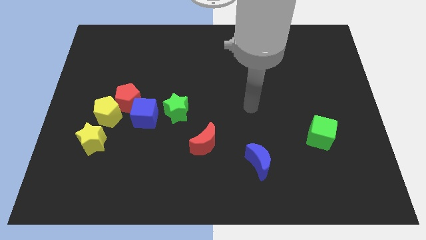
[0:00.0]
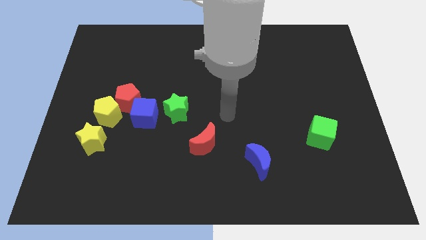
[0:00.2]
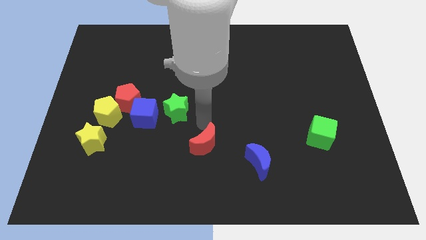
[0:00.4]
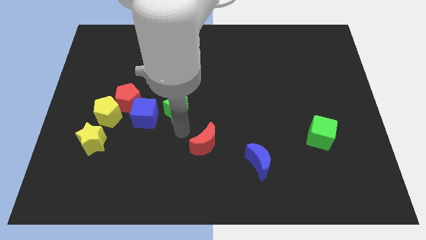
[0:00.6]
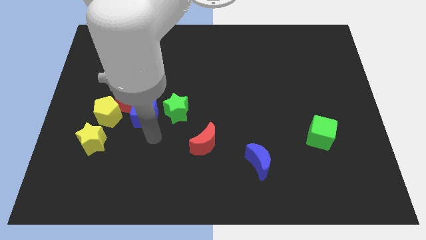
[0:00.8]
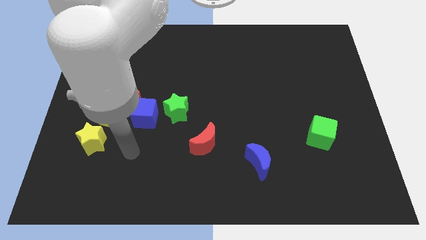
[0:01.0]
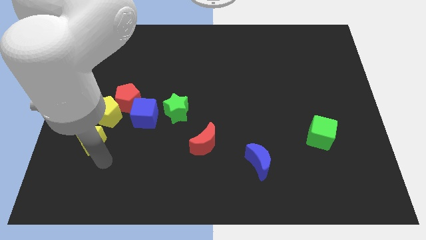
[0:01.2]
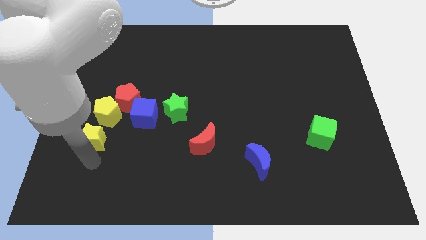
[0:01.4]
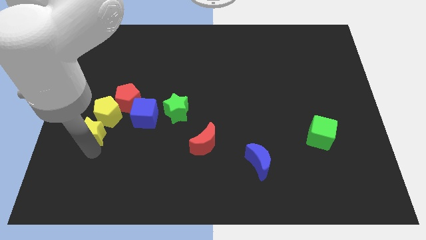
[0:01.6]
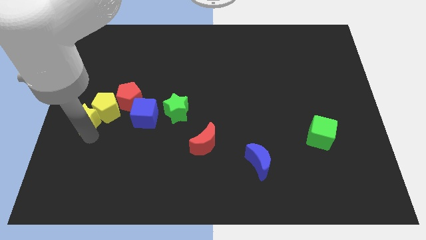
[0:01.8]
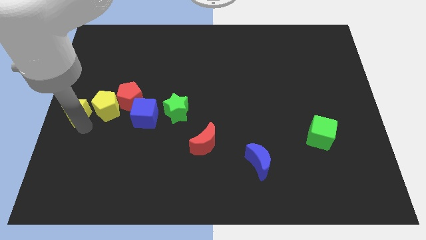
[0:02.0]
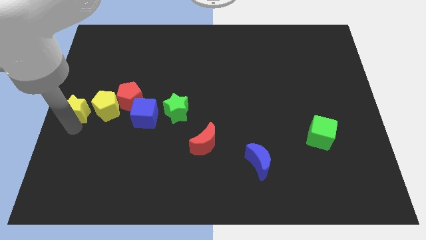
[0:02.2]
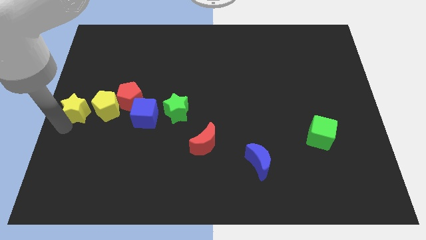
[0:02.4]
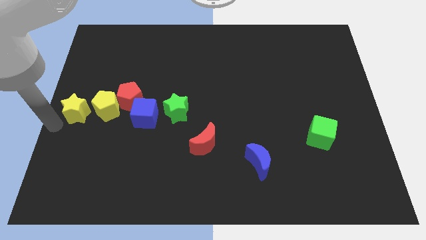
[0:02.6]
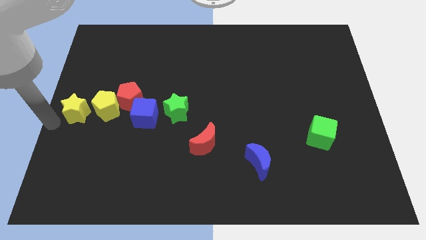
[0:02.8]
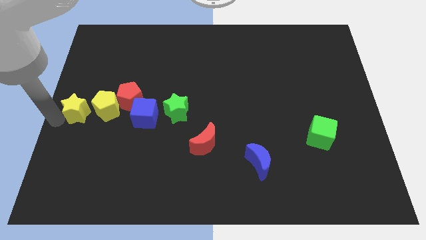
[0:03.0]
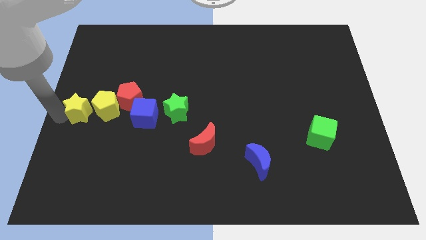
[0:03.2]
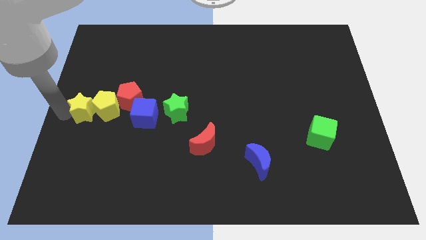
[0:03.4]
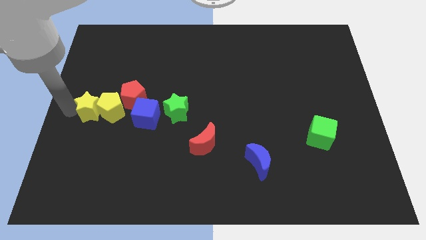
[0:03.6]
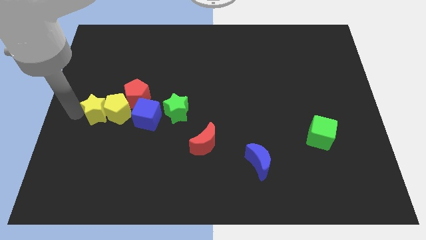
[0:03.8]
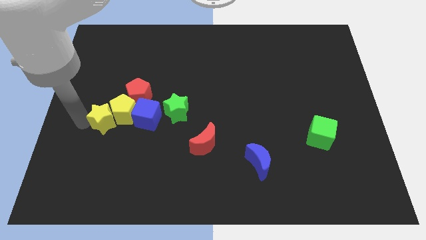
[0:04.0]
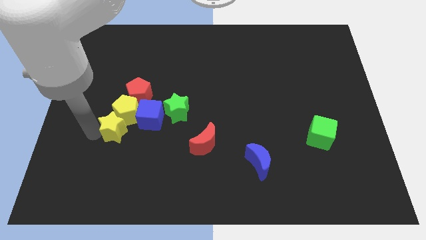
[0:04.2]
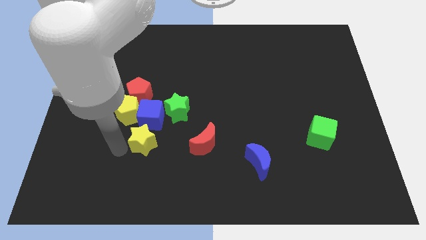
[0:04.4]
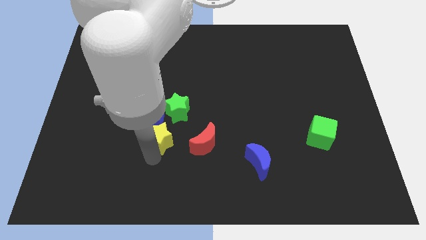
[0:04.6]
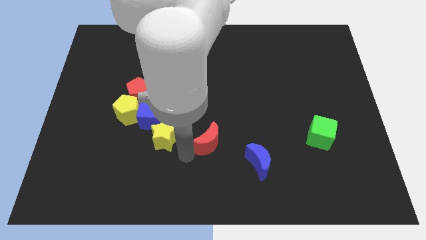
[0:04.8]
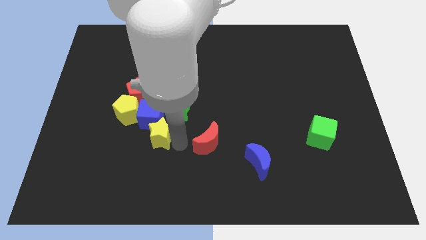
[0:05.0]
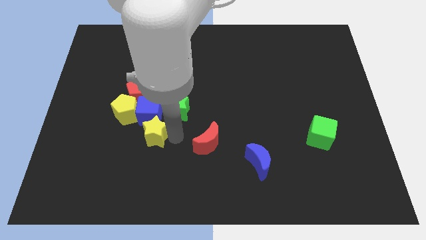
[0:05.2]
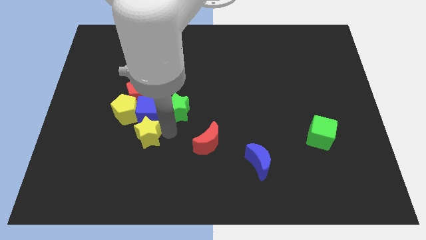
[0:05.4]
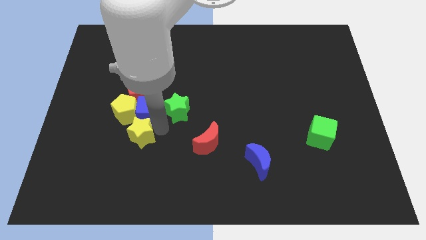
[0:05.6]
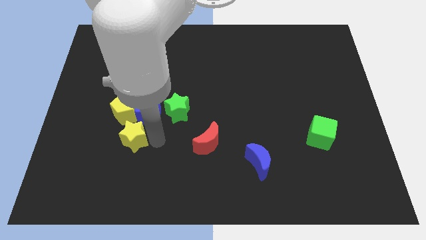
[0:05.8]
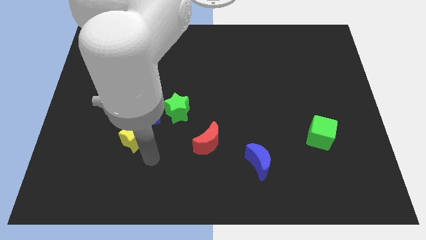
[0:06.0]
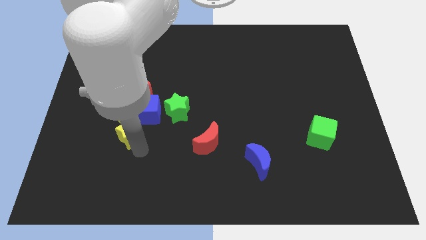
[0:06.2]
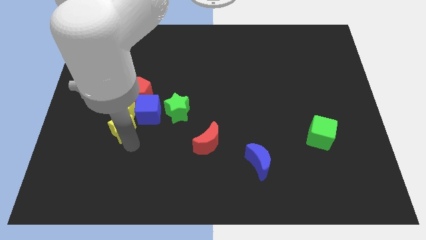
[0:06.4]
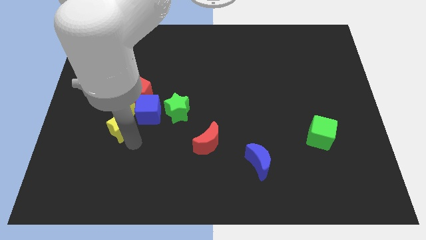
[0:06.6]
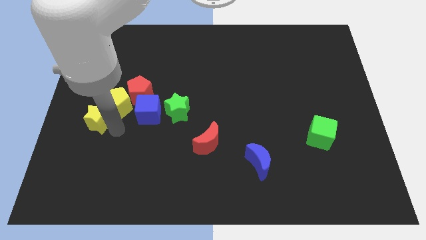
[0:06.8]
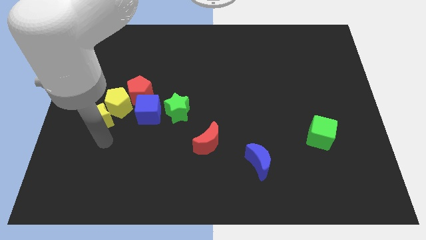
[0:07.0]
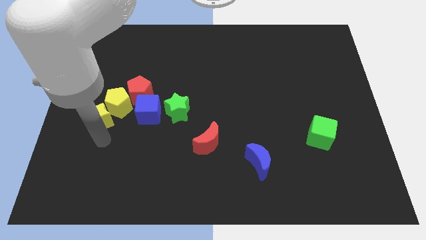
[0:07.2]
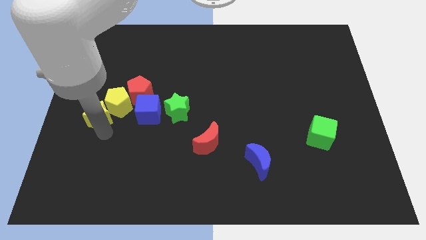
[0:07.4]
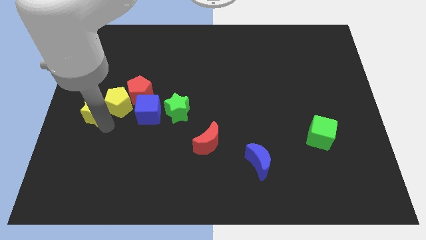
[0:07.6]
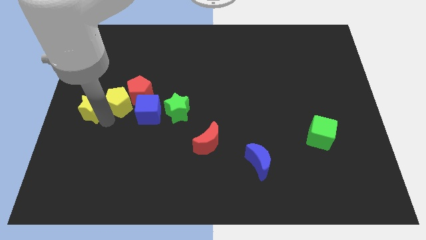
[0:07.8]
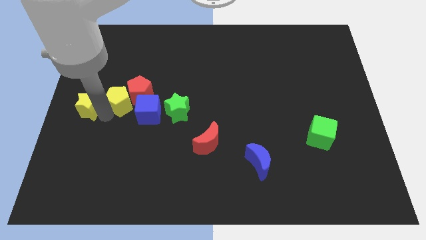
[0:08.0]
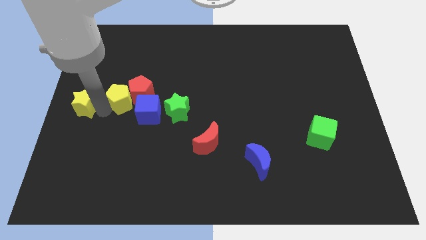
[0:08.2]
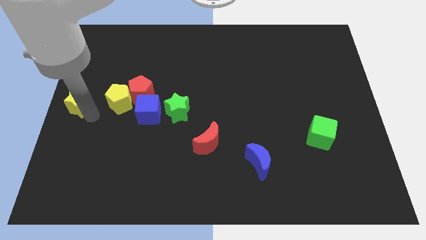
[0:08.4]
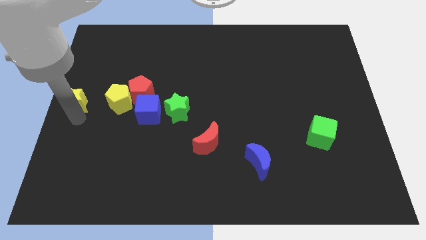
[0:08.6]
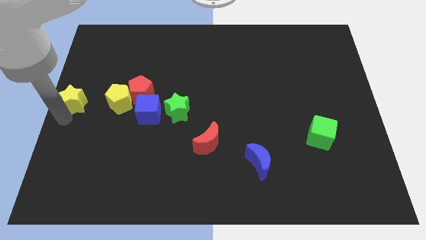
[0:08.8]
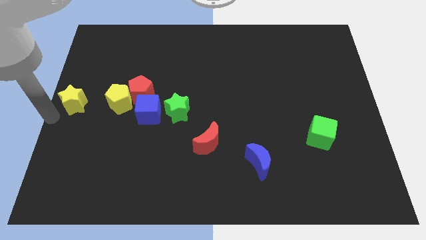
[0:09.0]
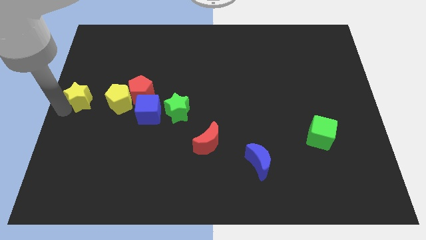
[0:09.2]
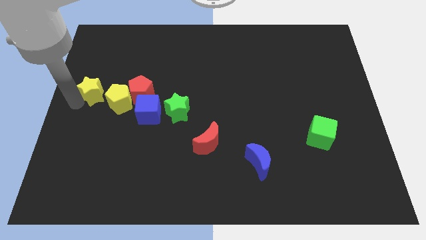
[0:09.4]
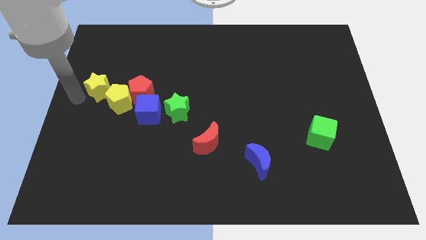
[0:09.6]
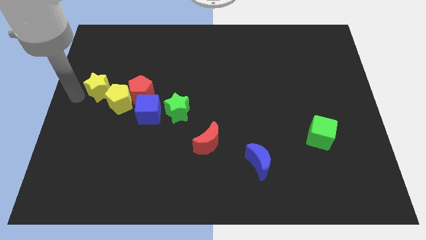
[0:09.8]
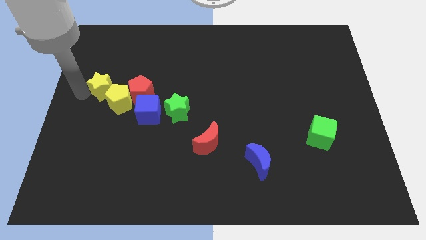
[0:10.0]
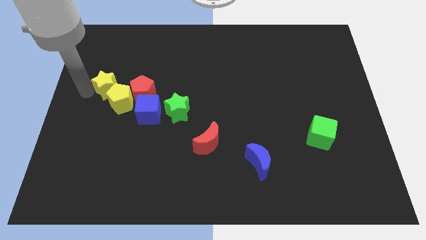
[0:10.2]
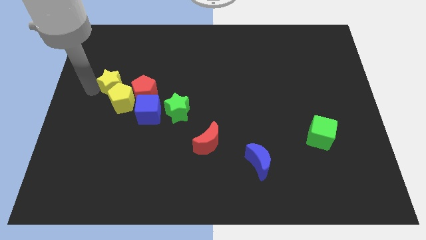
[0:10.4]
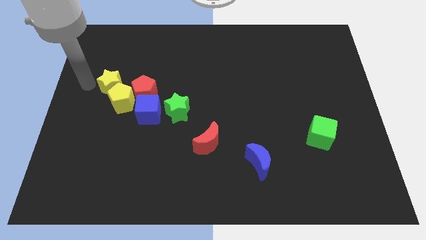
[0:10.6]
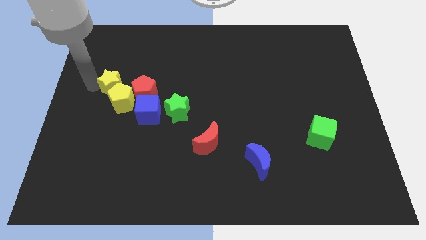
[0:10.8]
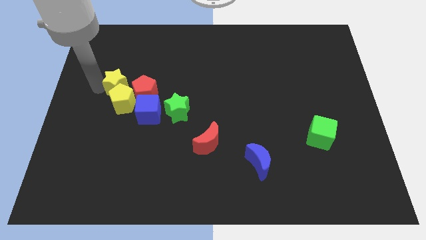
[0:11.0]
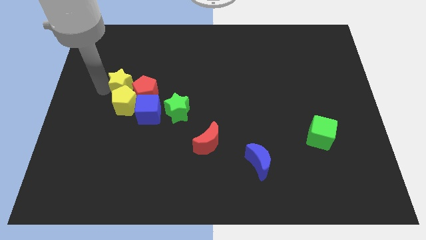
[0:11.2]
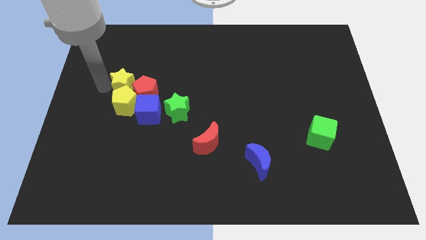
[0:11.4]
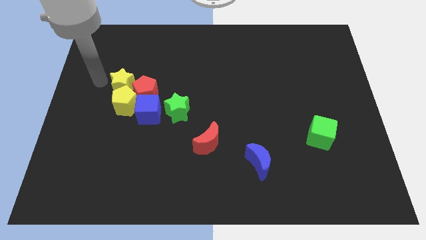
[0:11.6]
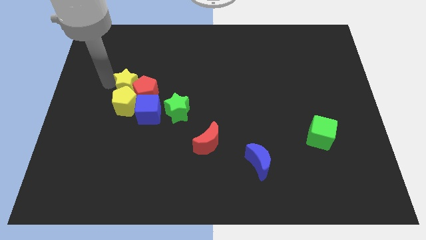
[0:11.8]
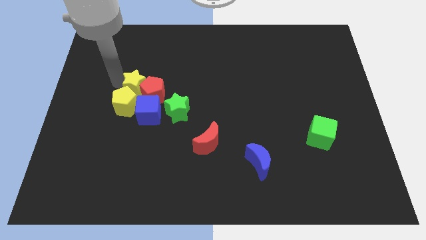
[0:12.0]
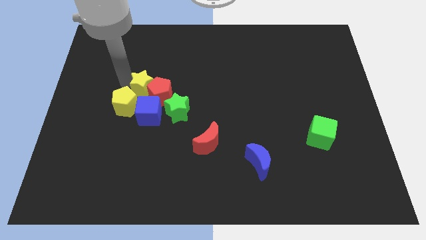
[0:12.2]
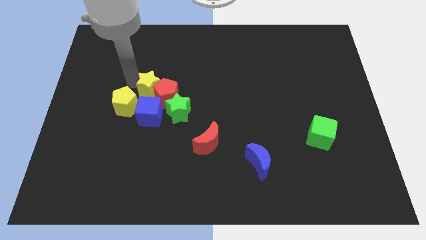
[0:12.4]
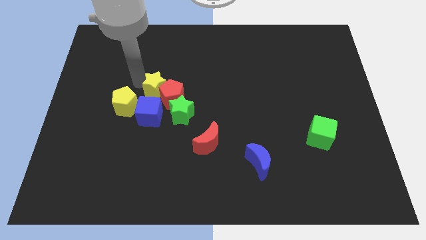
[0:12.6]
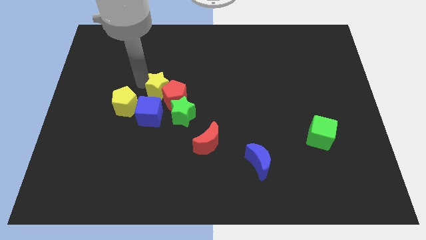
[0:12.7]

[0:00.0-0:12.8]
put the yellow star to the top right of the blue cube

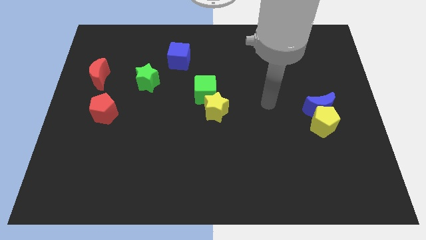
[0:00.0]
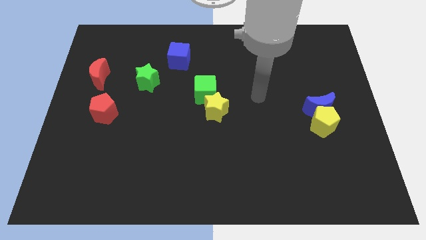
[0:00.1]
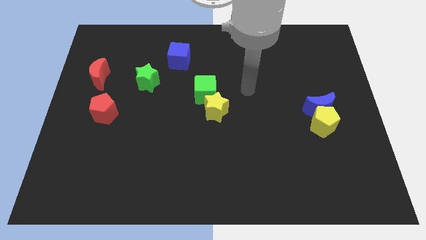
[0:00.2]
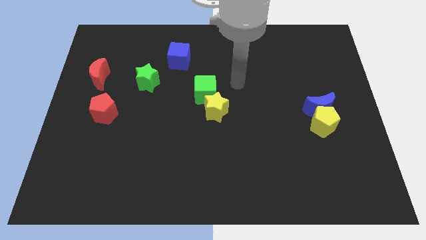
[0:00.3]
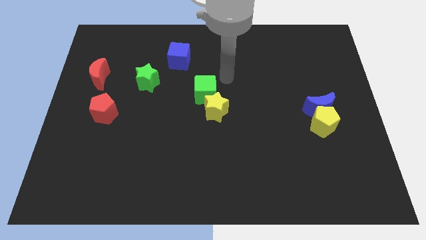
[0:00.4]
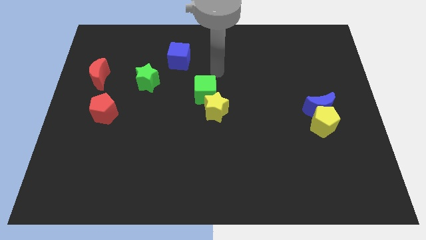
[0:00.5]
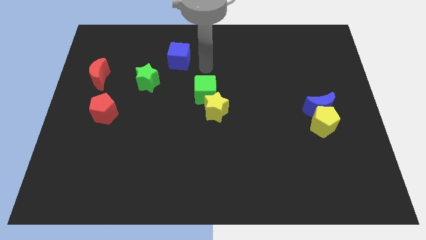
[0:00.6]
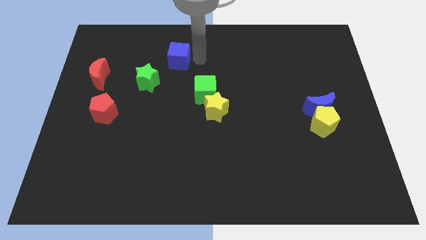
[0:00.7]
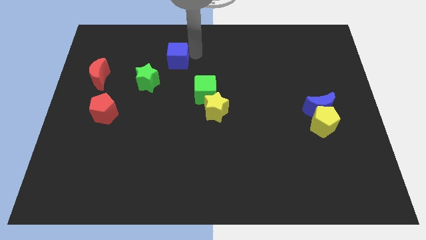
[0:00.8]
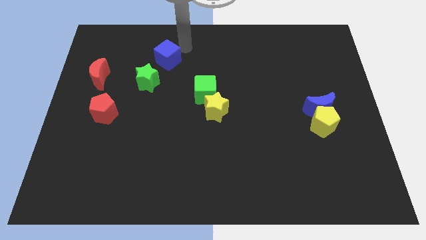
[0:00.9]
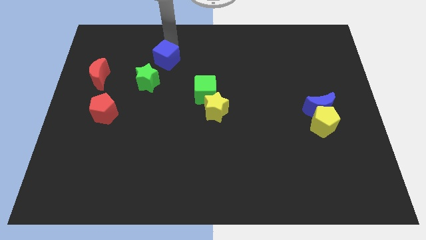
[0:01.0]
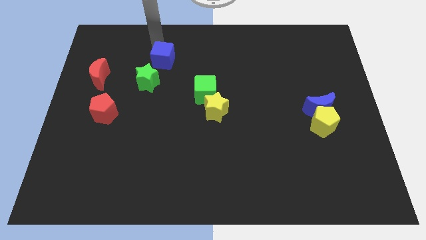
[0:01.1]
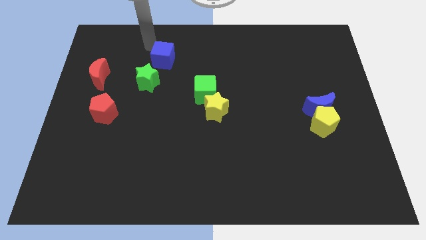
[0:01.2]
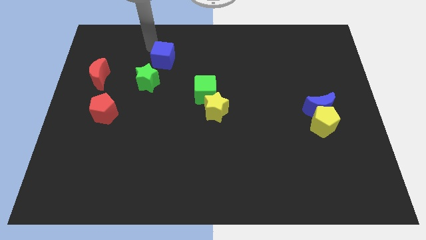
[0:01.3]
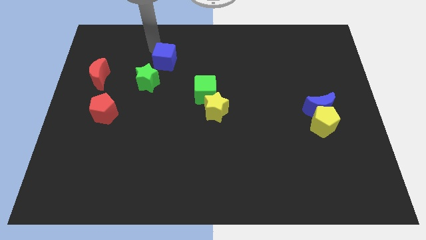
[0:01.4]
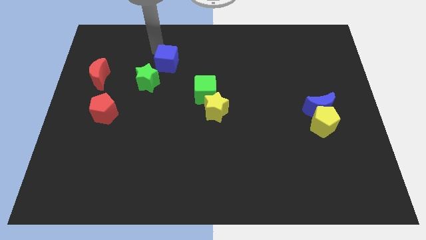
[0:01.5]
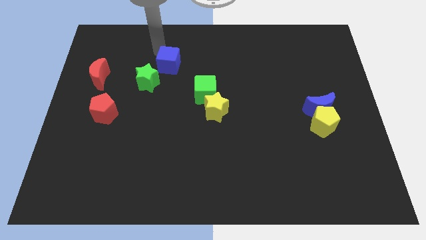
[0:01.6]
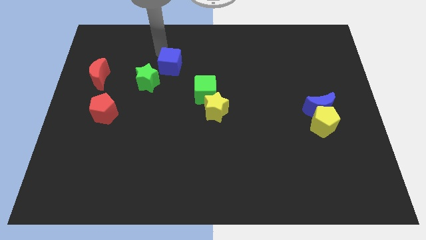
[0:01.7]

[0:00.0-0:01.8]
put the blue cube to the top left of the green cube
